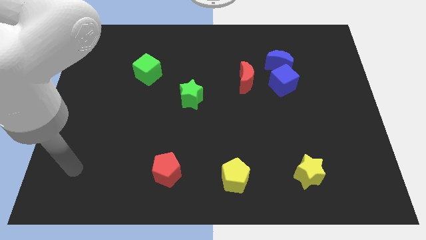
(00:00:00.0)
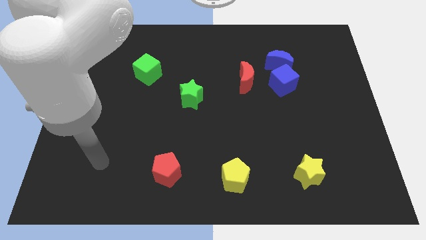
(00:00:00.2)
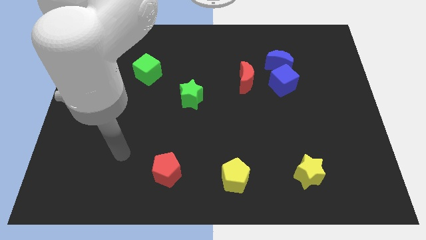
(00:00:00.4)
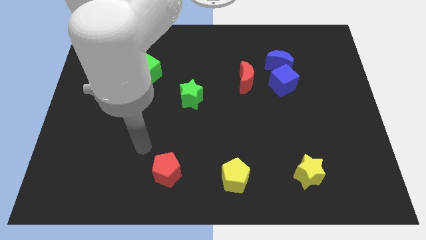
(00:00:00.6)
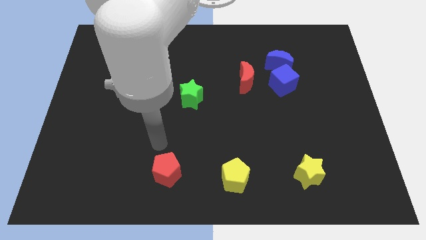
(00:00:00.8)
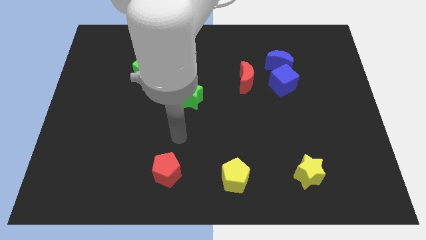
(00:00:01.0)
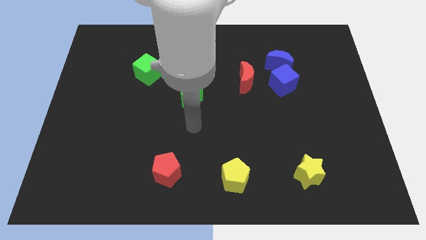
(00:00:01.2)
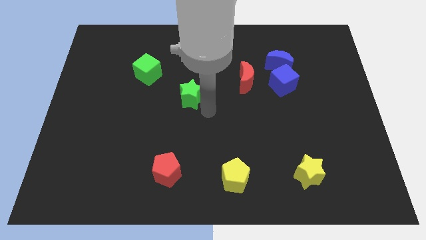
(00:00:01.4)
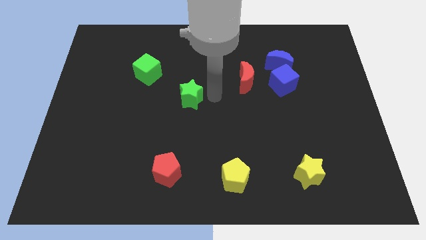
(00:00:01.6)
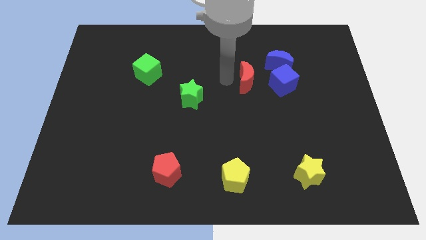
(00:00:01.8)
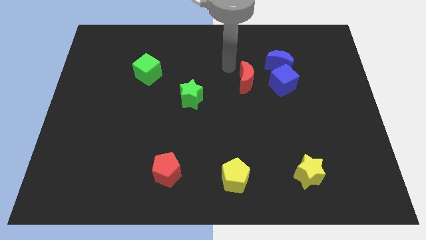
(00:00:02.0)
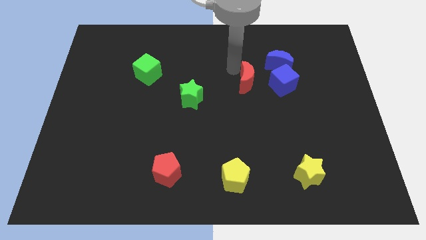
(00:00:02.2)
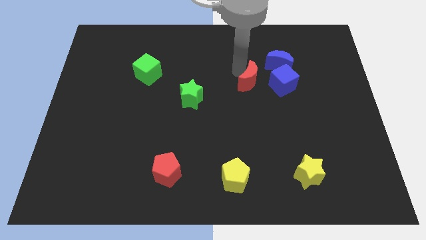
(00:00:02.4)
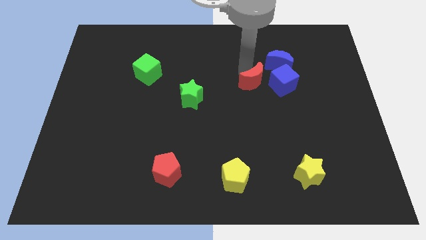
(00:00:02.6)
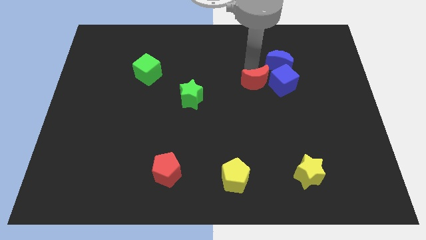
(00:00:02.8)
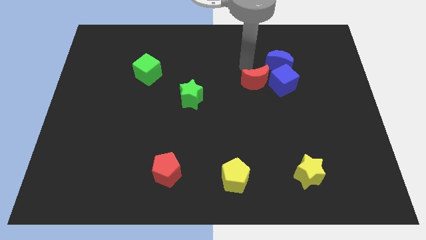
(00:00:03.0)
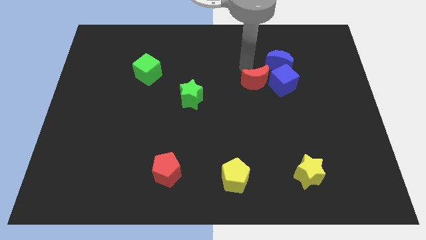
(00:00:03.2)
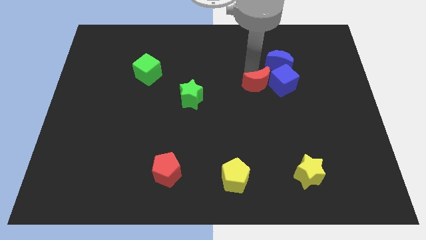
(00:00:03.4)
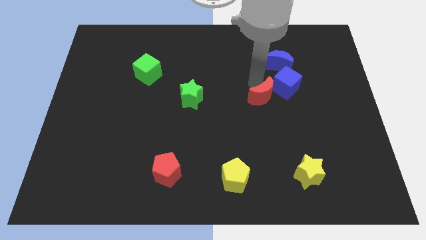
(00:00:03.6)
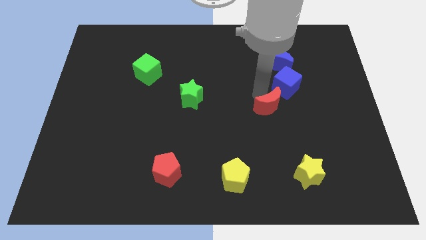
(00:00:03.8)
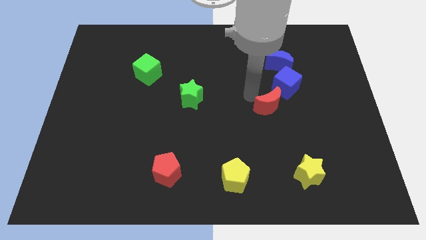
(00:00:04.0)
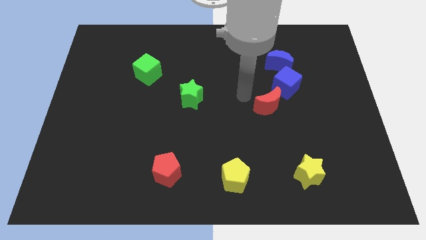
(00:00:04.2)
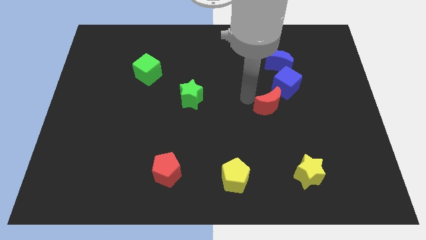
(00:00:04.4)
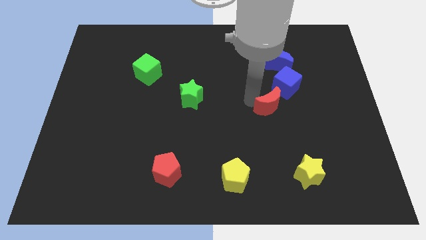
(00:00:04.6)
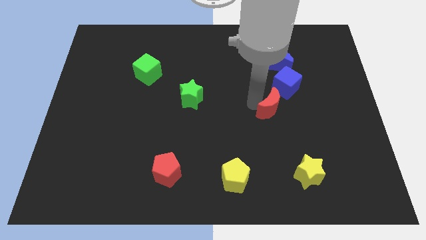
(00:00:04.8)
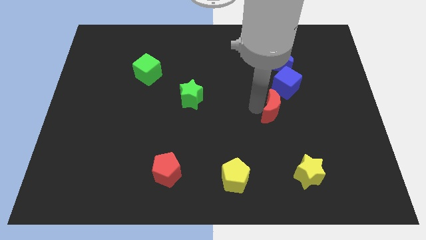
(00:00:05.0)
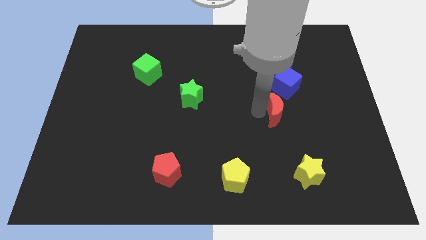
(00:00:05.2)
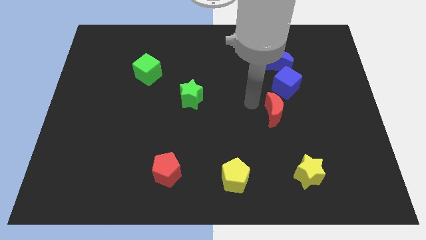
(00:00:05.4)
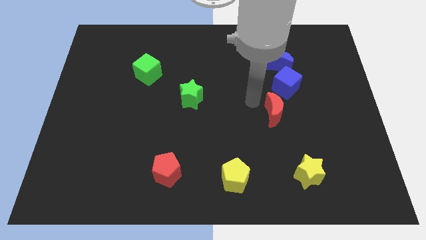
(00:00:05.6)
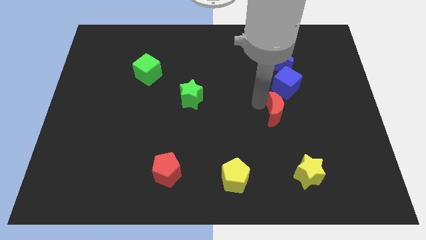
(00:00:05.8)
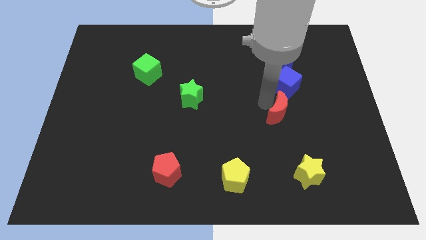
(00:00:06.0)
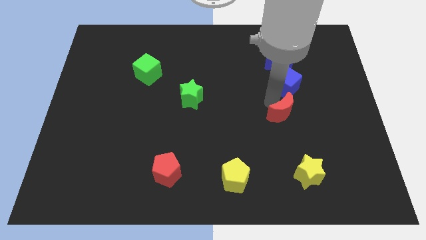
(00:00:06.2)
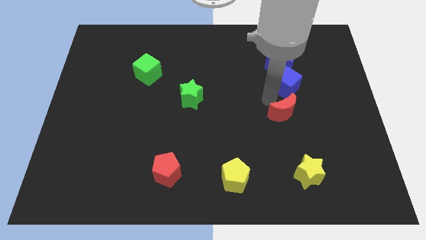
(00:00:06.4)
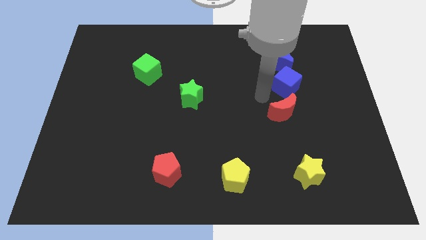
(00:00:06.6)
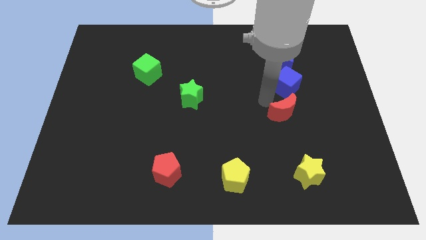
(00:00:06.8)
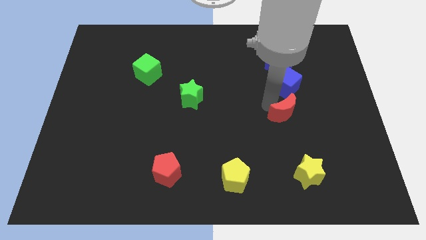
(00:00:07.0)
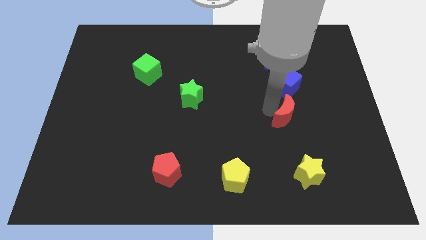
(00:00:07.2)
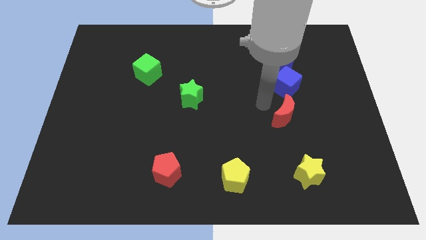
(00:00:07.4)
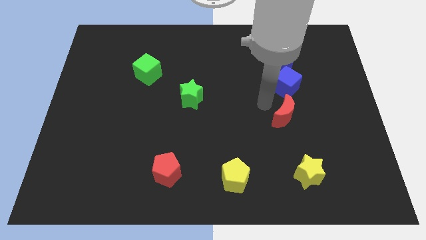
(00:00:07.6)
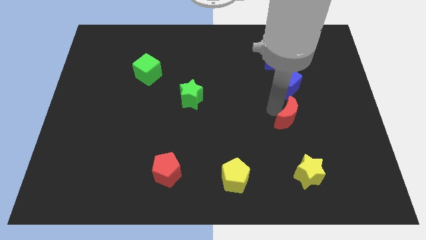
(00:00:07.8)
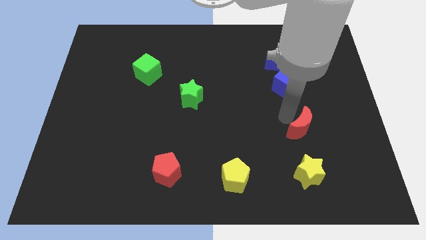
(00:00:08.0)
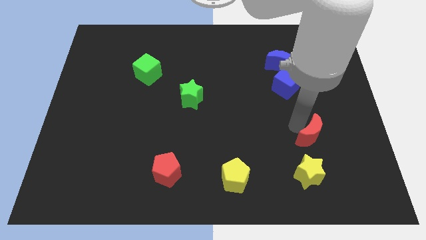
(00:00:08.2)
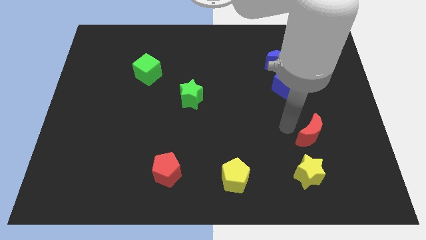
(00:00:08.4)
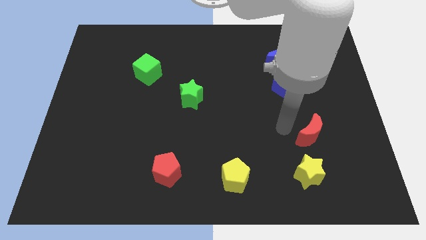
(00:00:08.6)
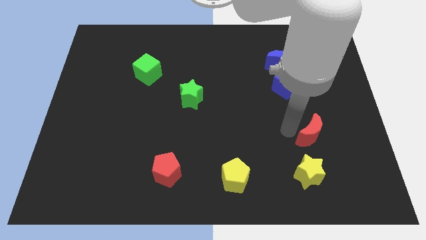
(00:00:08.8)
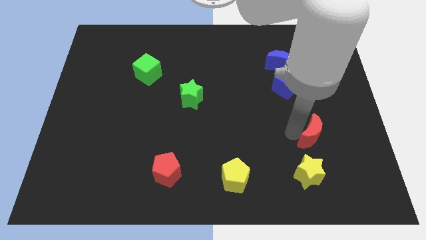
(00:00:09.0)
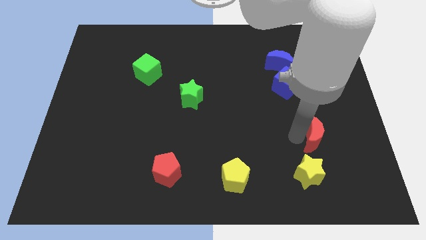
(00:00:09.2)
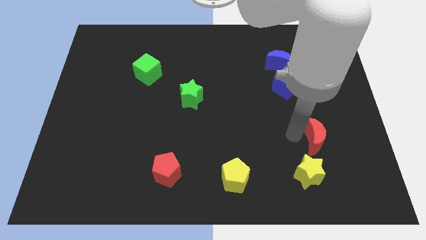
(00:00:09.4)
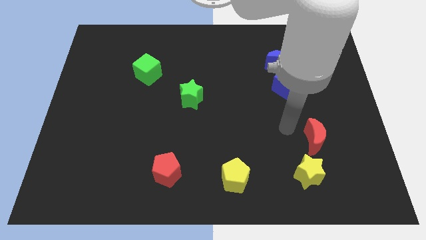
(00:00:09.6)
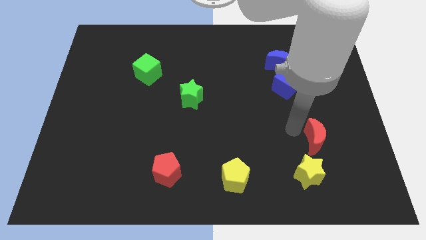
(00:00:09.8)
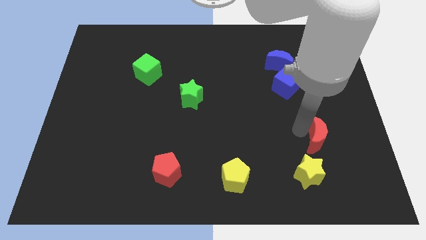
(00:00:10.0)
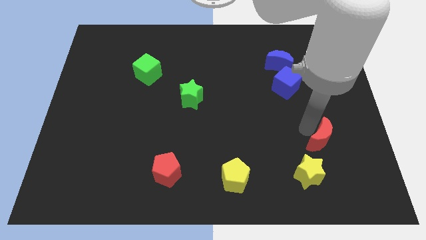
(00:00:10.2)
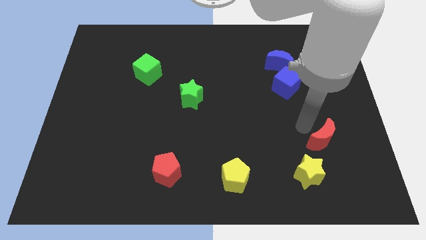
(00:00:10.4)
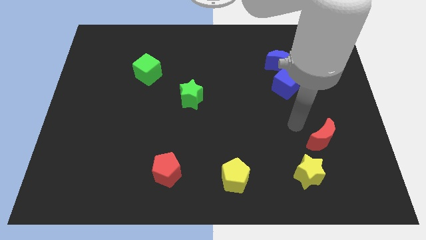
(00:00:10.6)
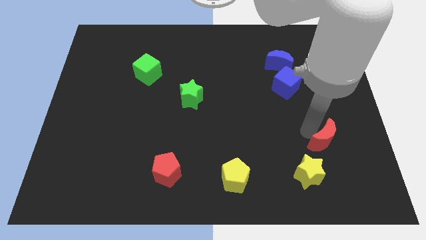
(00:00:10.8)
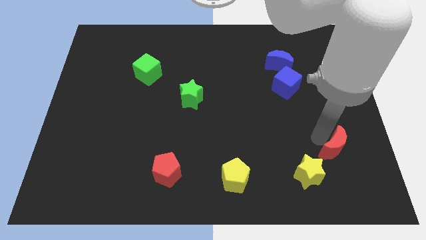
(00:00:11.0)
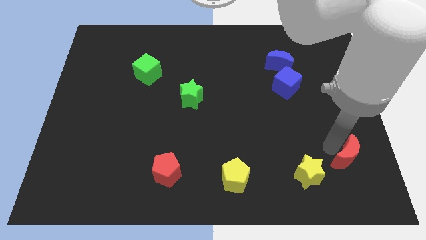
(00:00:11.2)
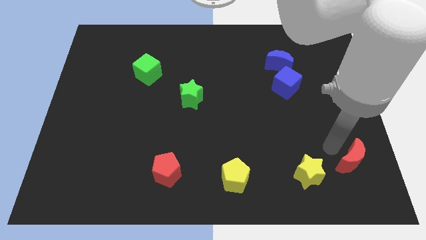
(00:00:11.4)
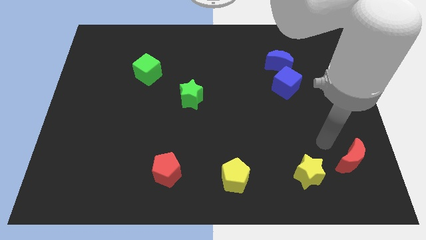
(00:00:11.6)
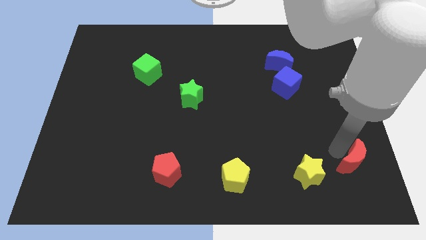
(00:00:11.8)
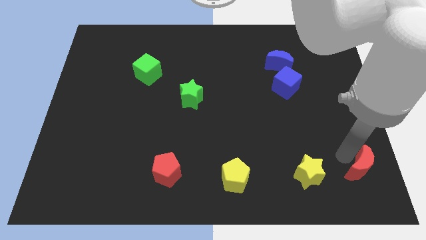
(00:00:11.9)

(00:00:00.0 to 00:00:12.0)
push the red moon to the lower right corner
